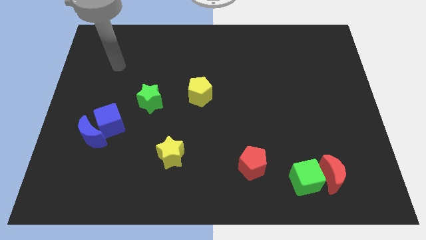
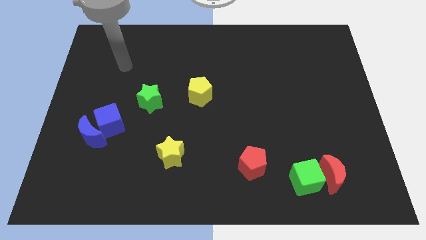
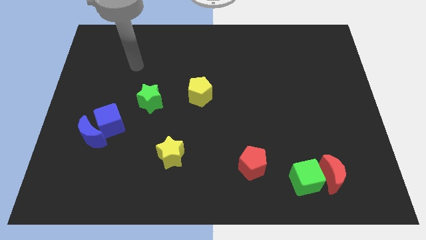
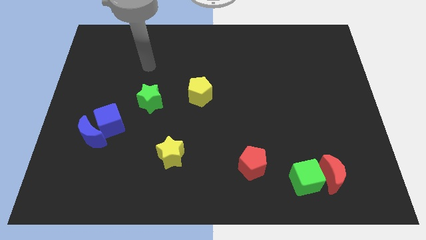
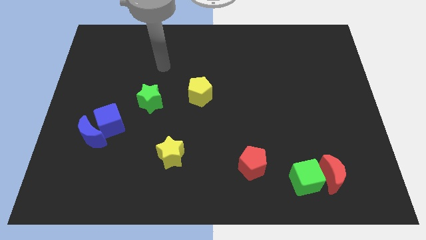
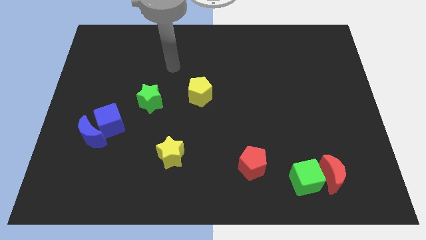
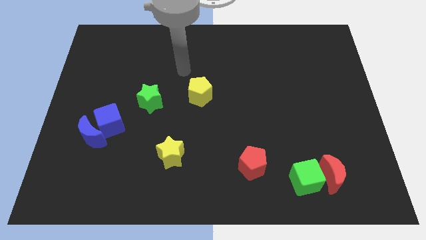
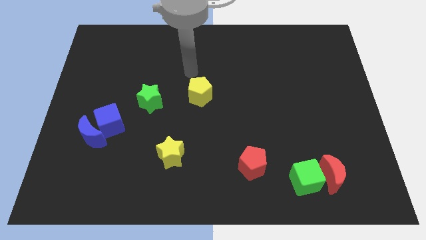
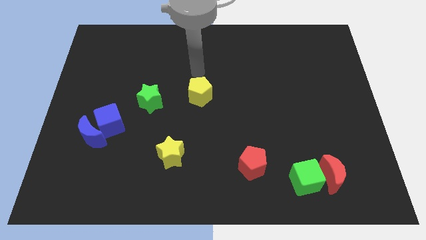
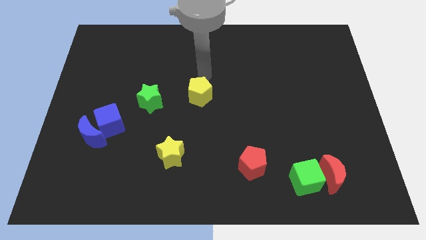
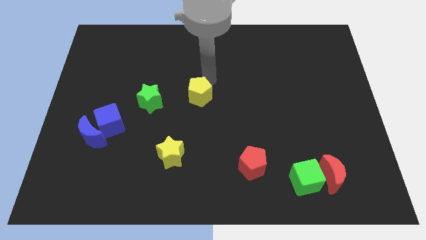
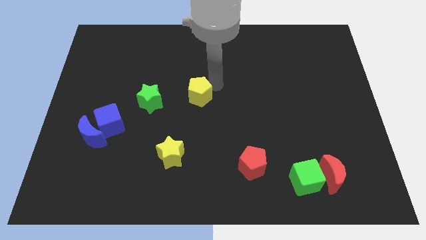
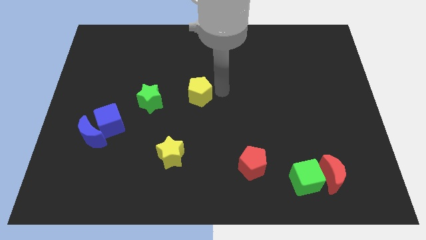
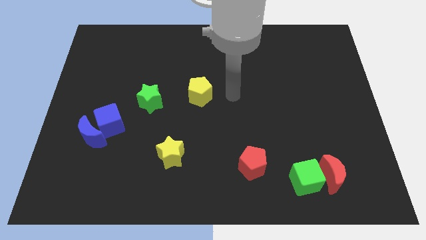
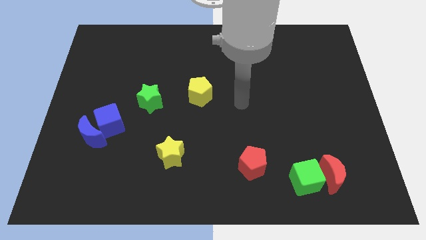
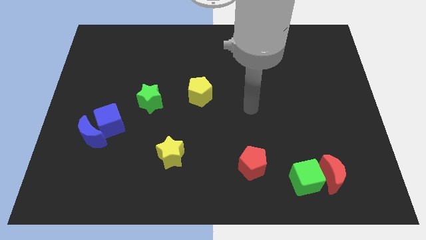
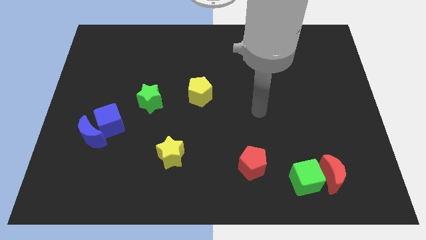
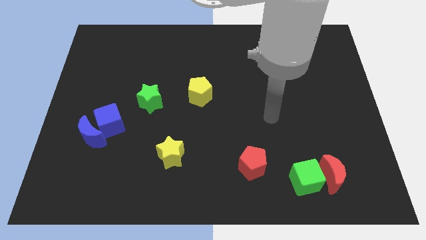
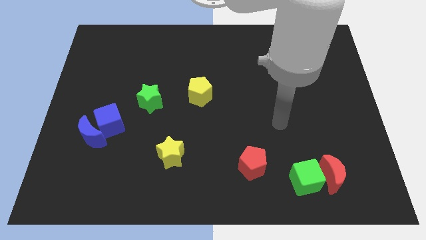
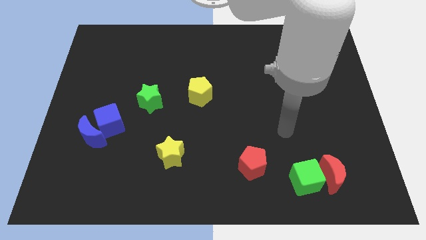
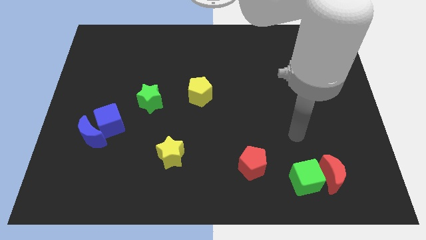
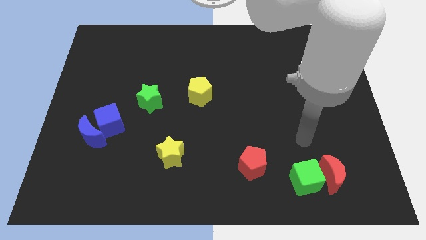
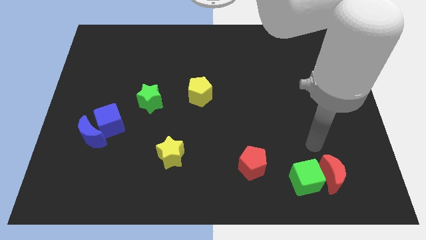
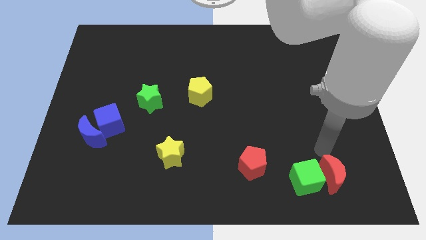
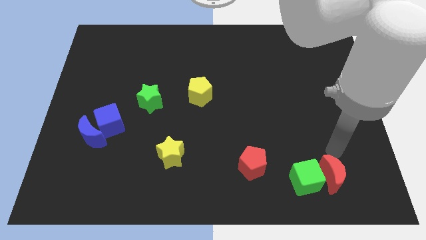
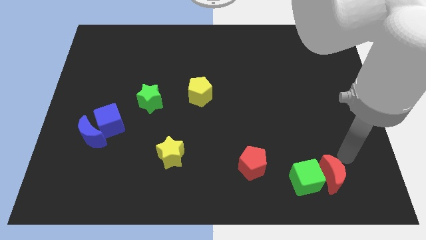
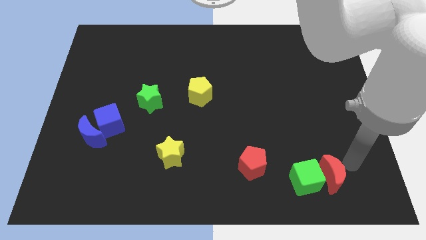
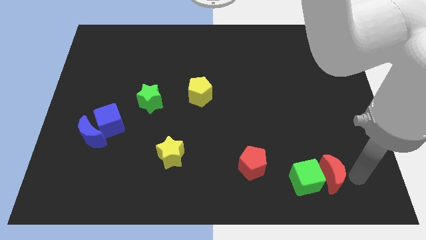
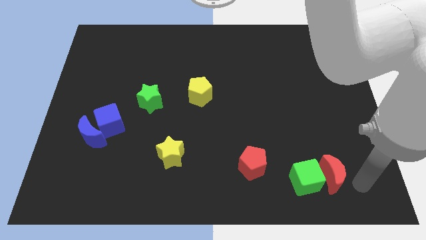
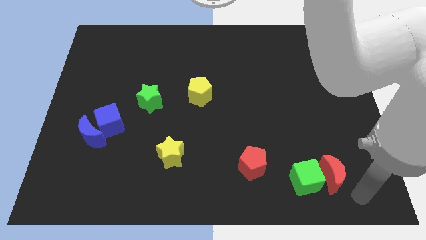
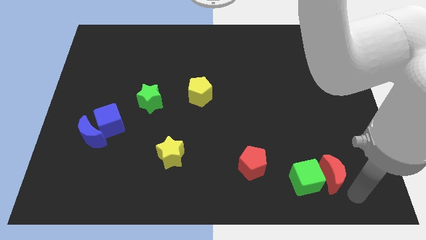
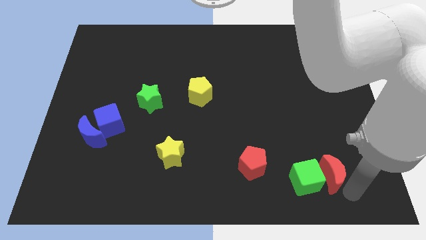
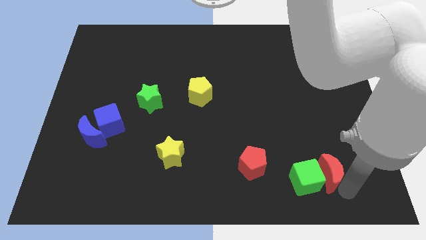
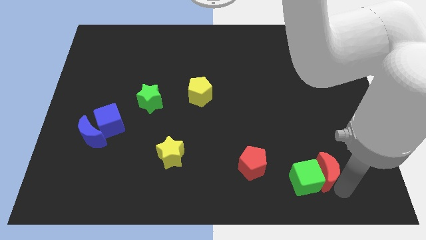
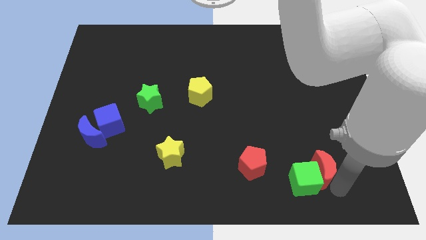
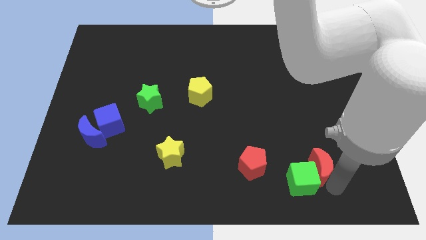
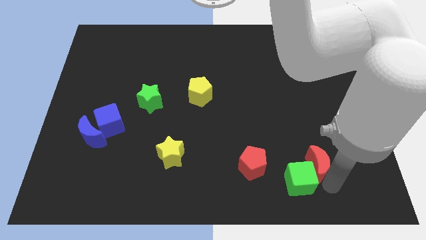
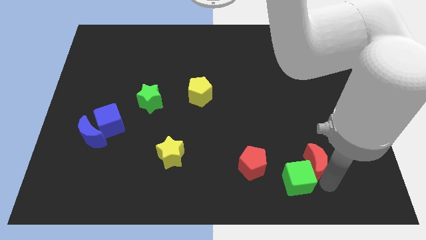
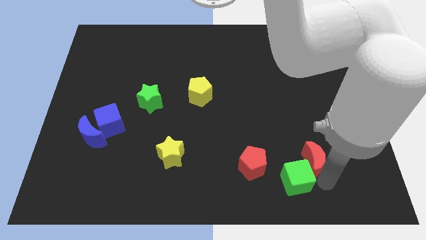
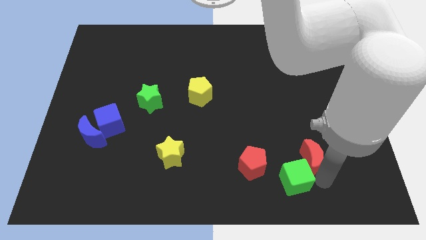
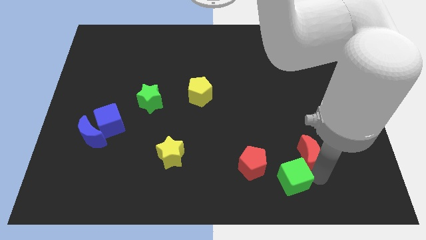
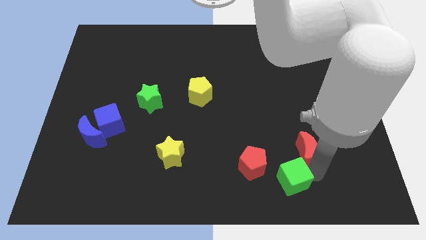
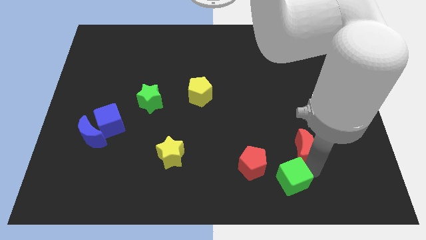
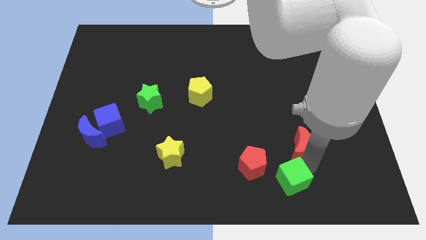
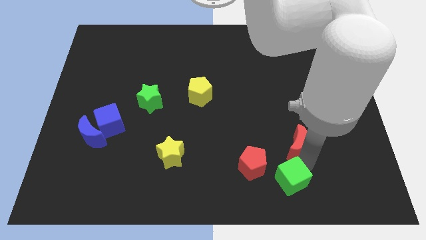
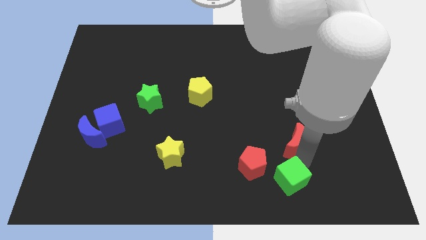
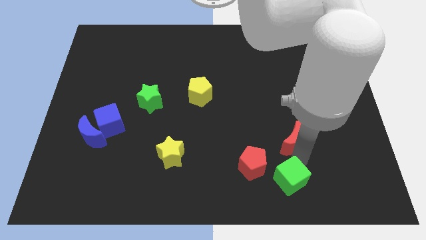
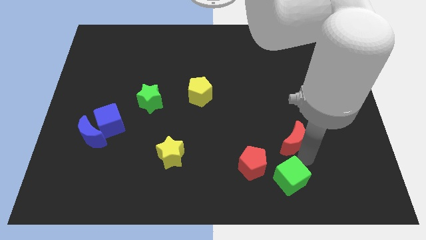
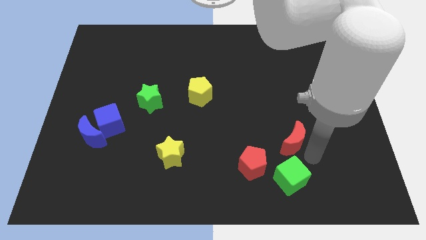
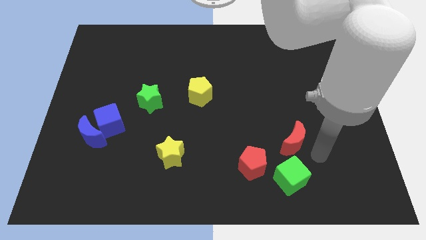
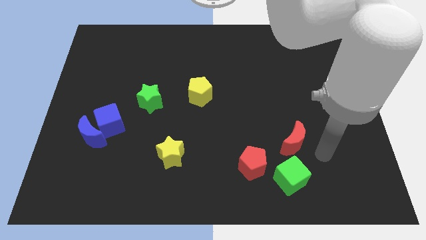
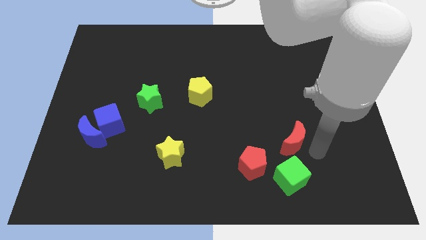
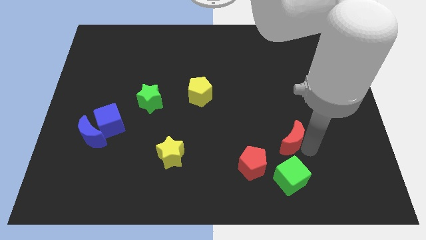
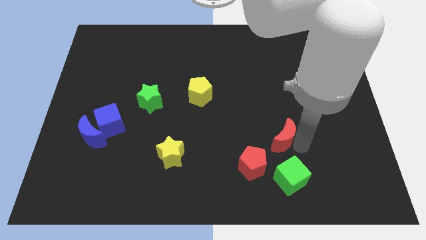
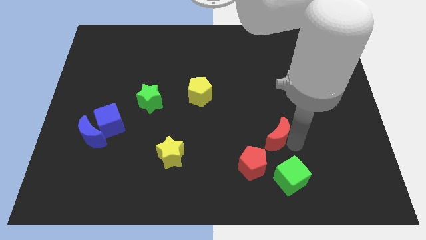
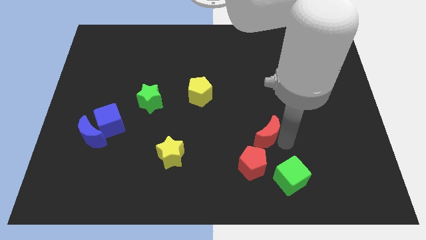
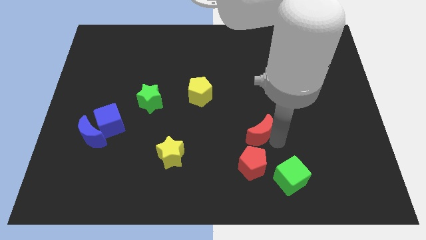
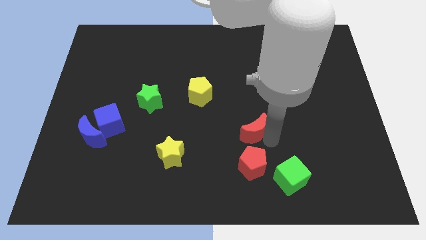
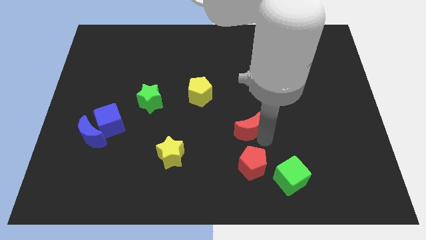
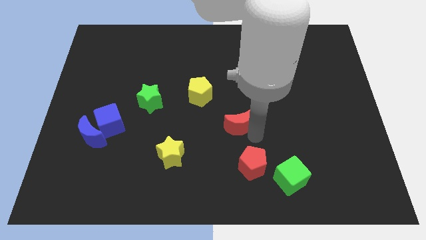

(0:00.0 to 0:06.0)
slide the red moon up and then to the left

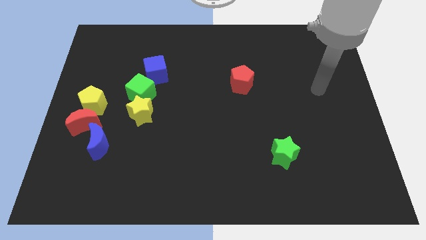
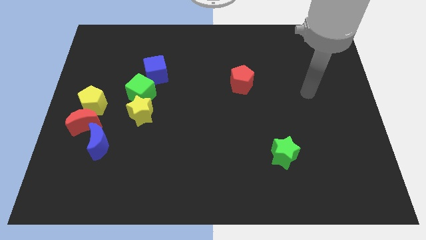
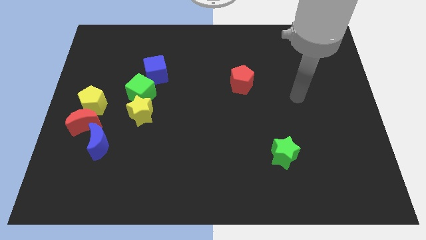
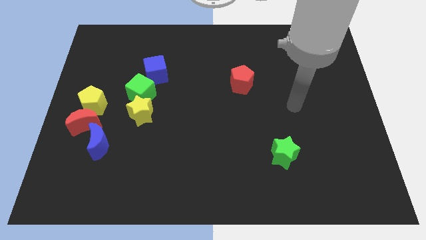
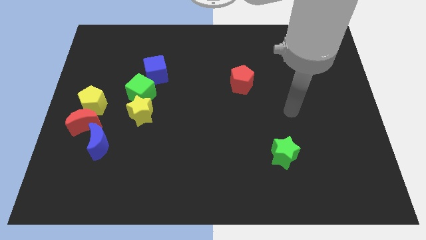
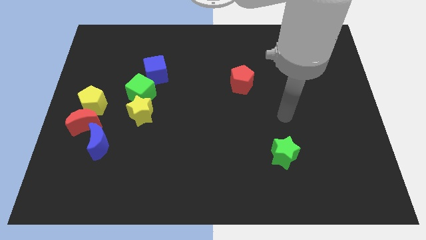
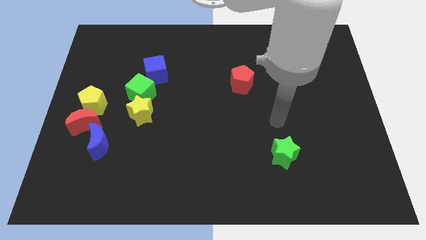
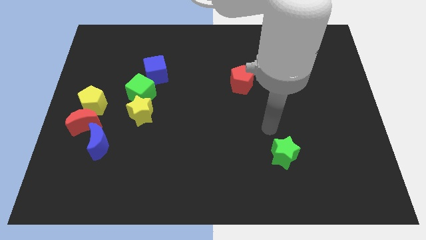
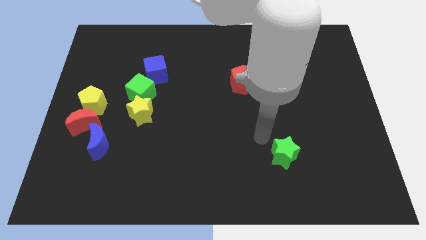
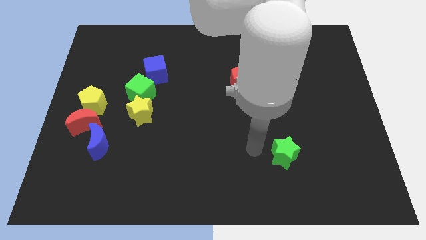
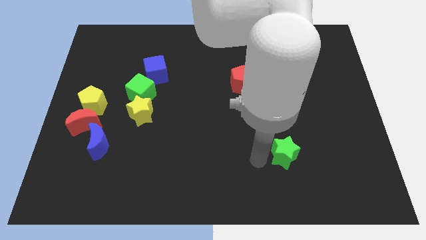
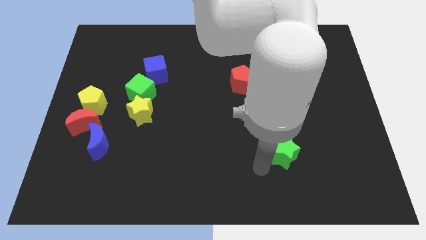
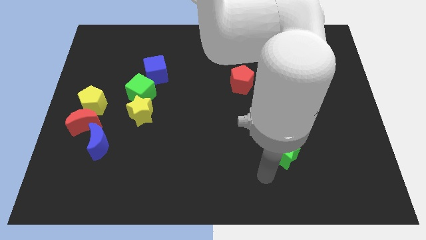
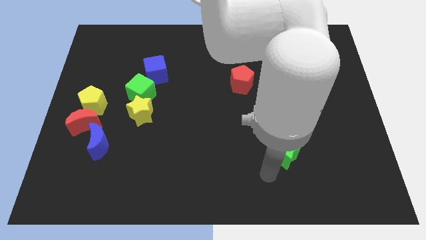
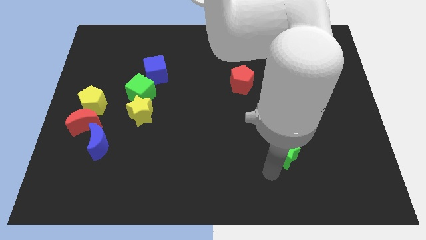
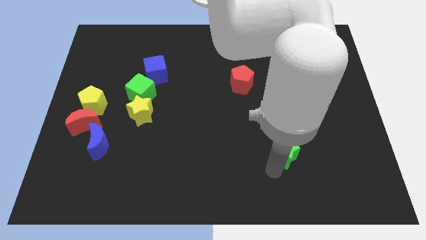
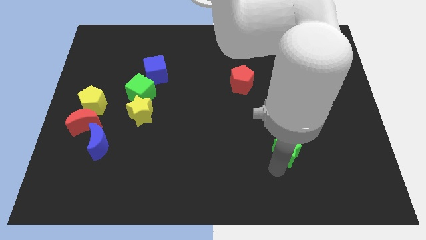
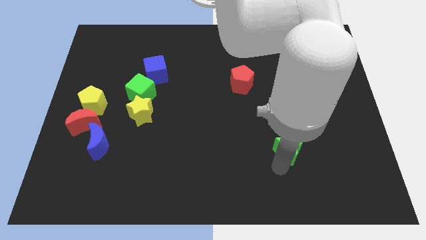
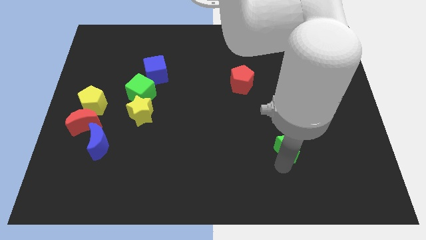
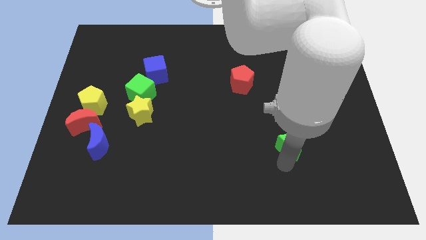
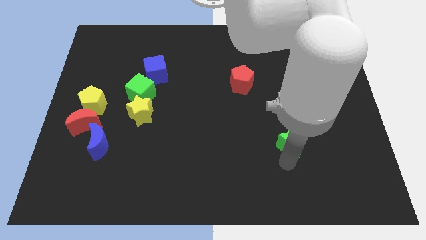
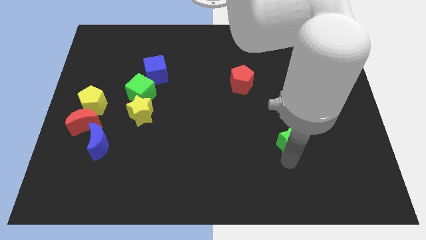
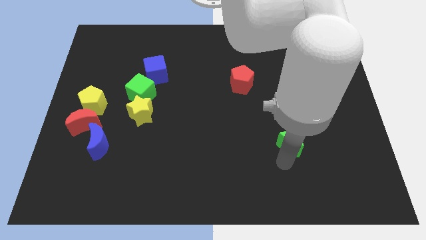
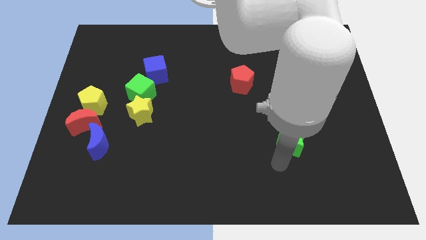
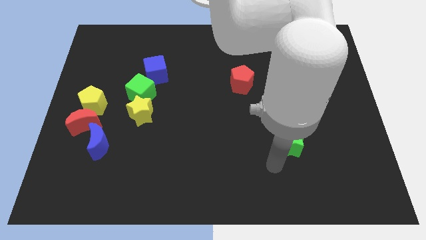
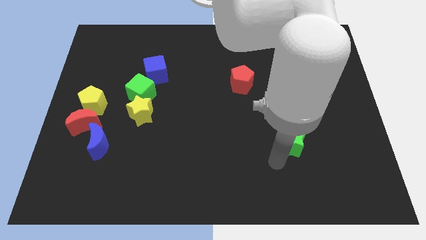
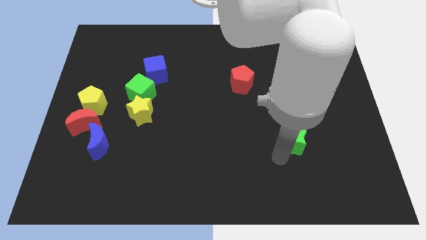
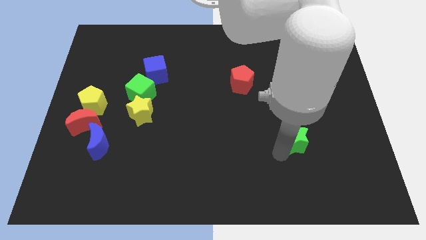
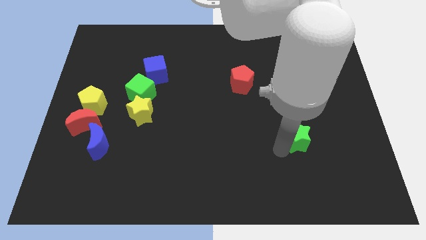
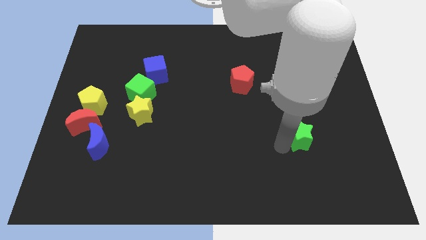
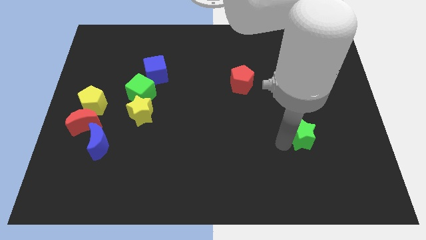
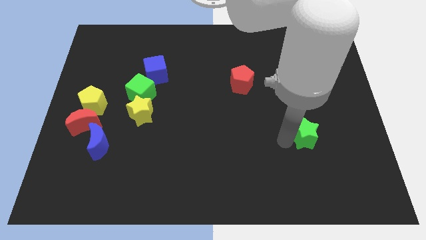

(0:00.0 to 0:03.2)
slightly push the green star up and to the right
